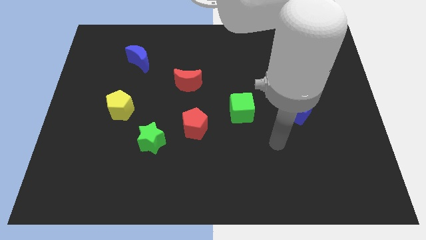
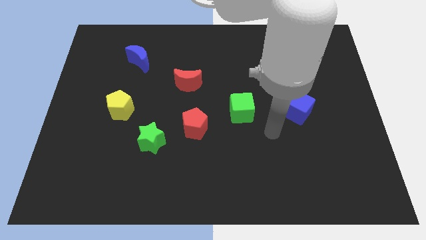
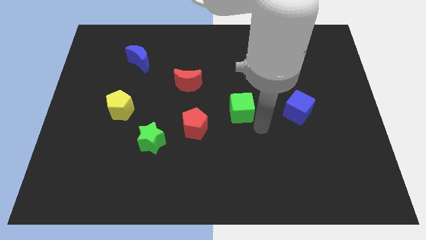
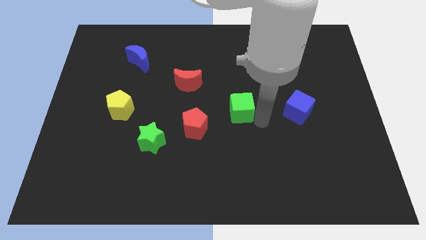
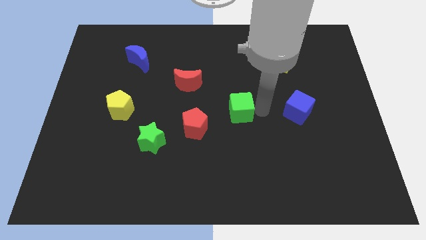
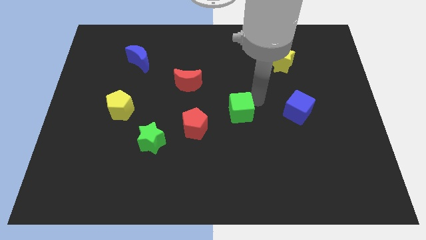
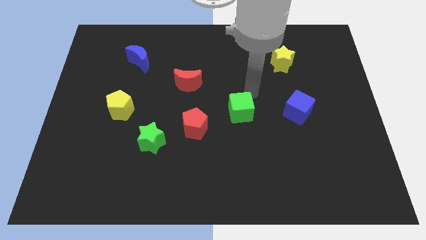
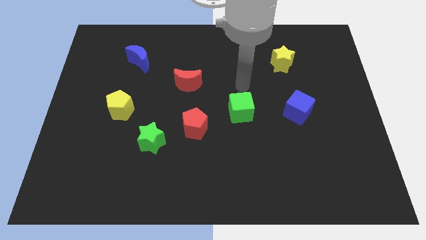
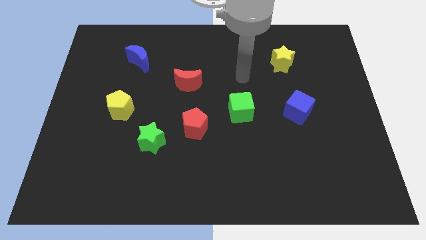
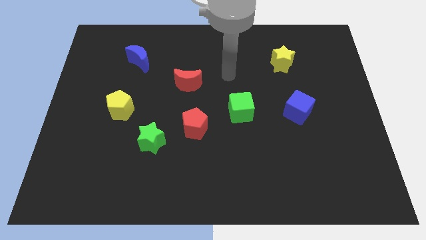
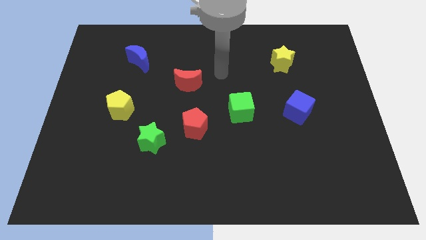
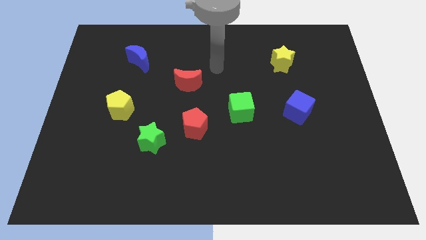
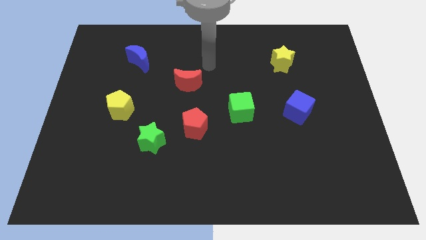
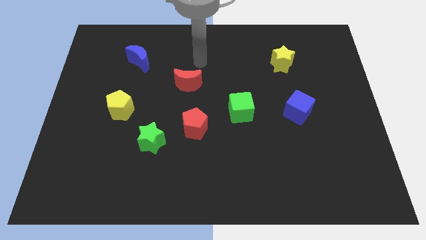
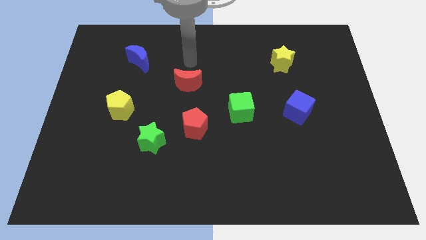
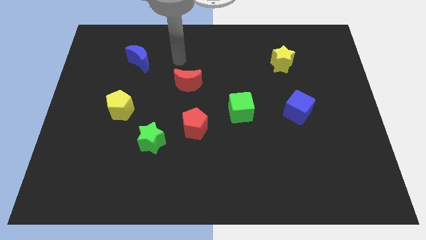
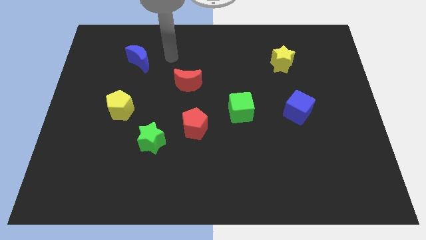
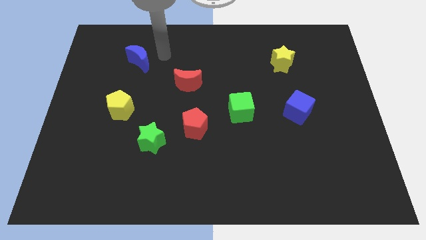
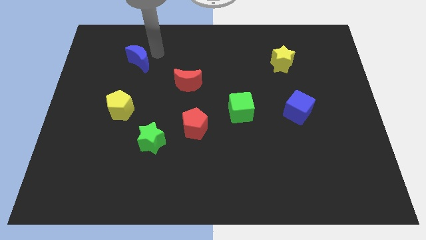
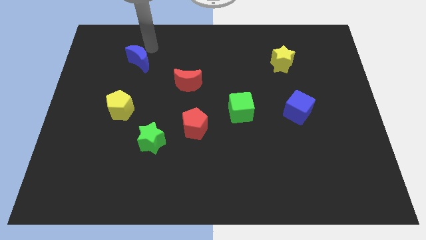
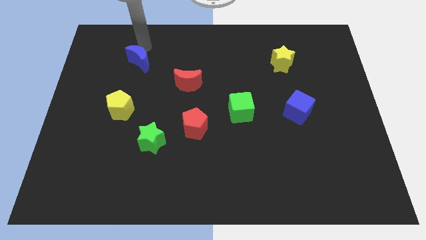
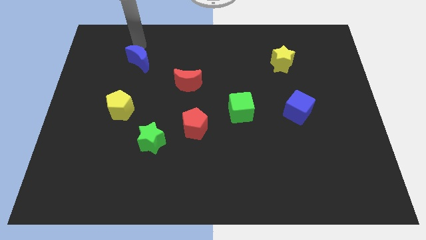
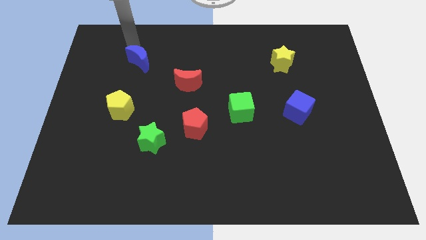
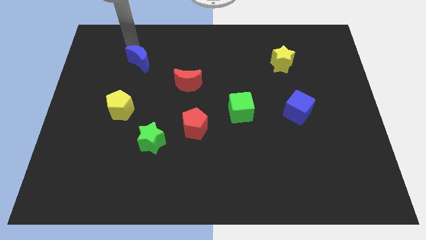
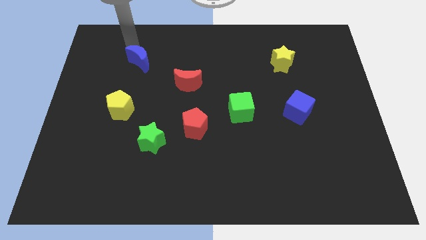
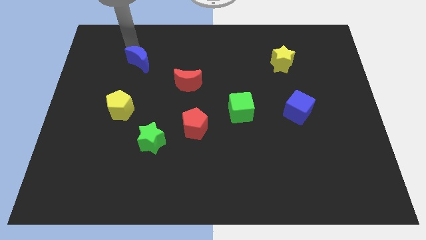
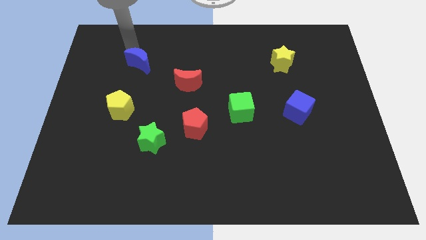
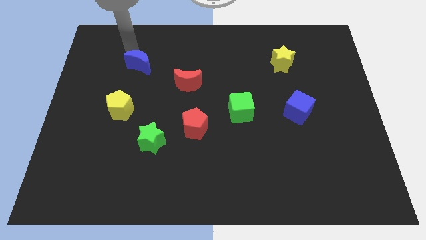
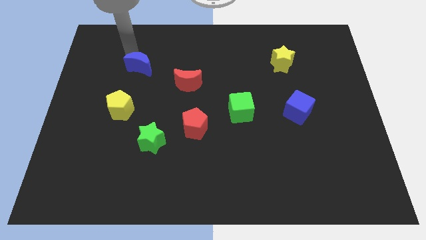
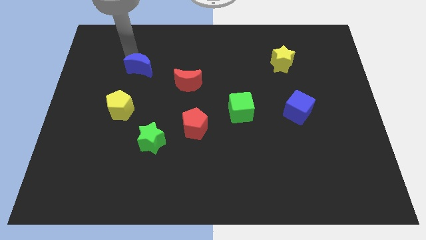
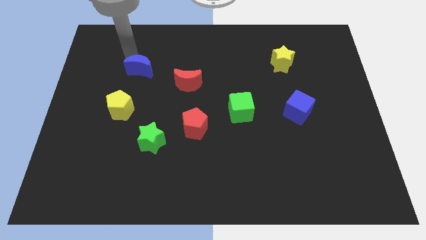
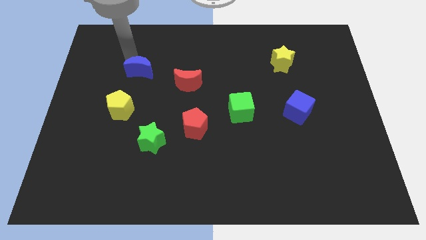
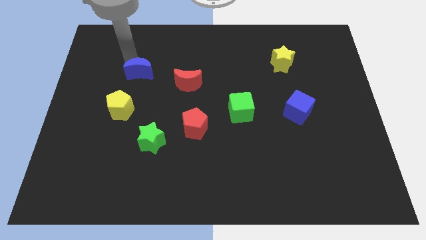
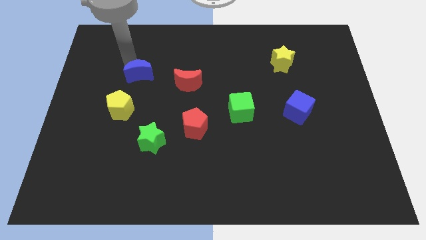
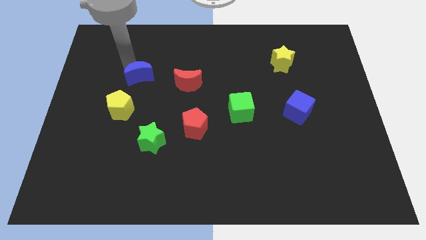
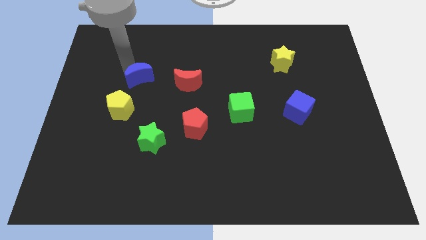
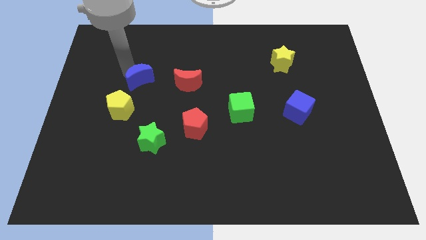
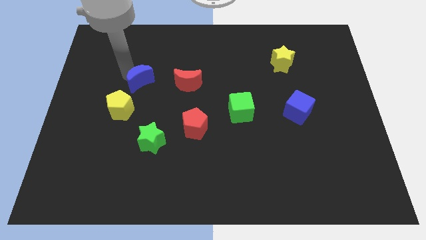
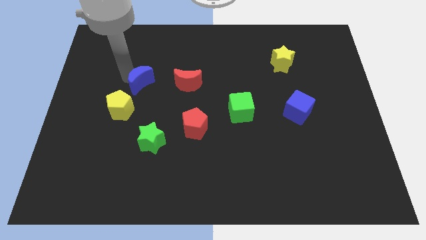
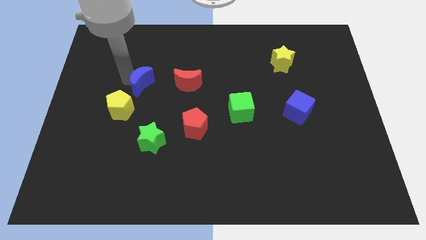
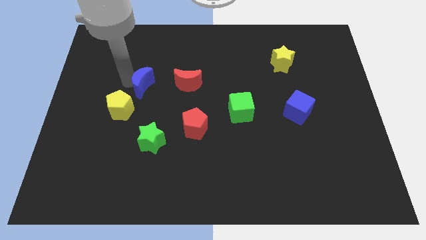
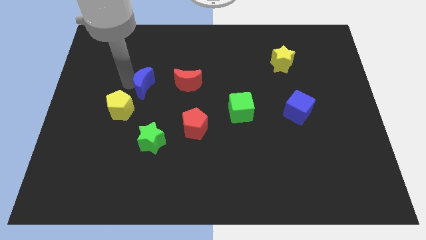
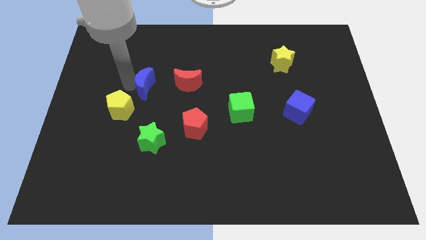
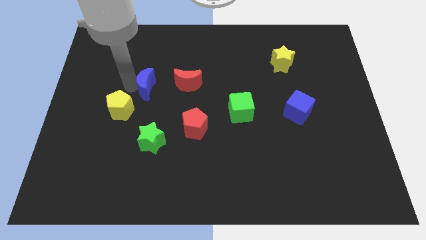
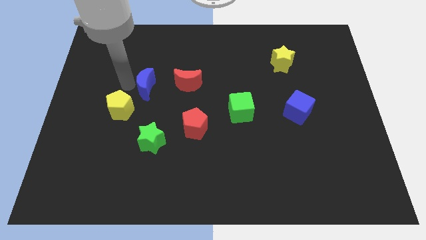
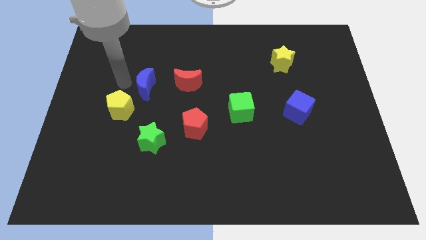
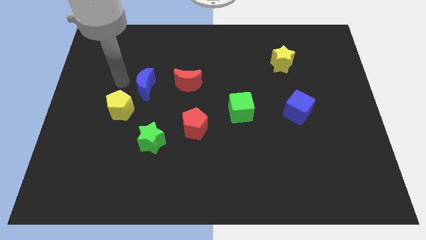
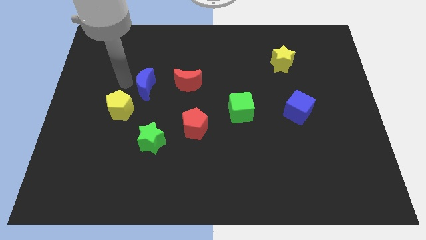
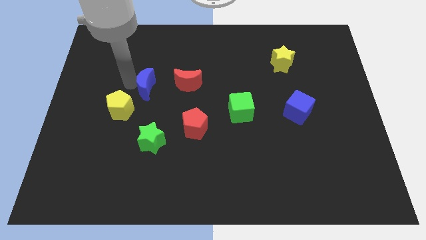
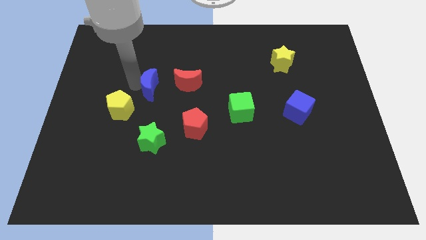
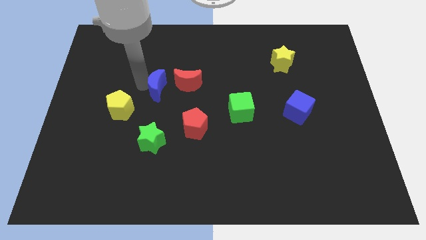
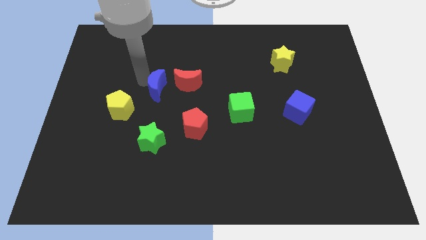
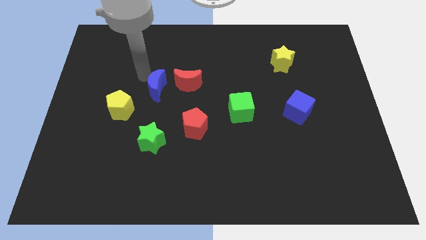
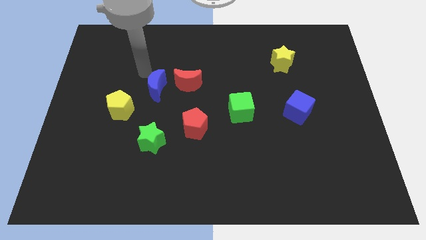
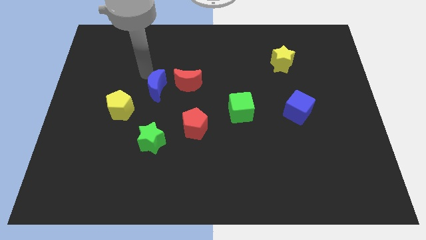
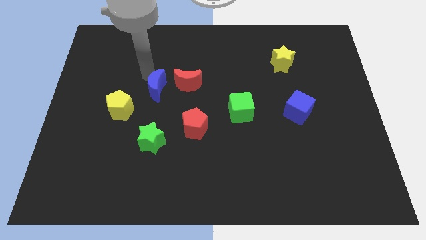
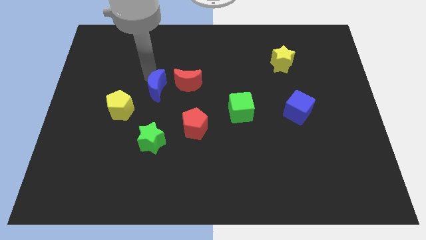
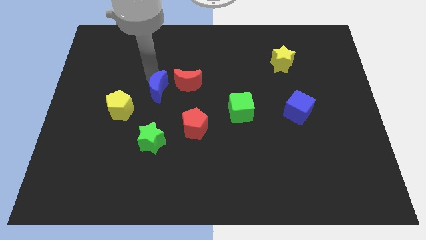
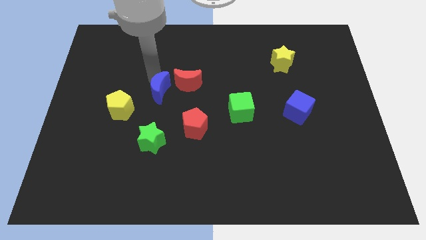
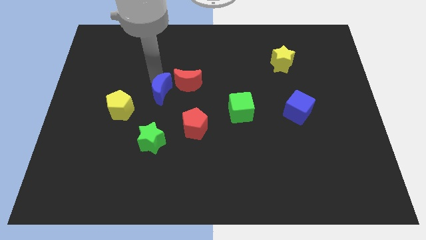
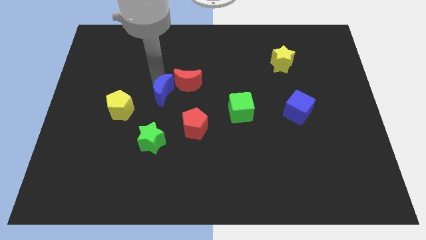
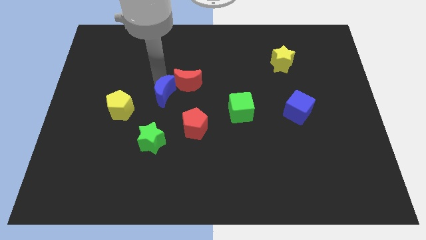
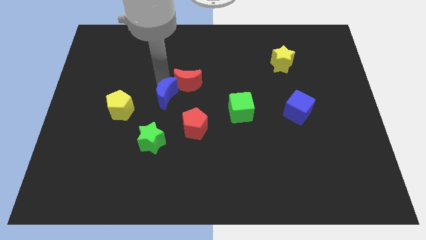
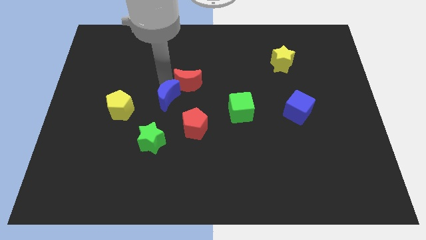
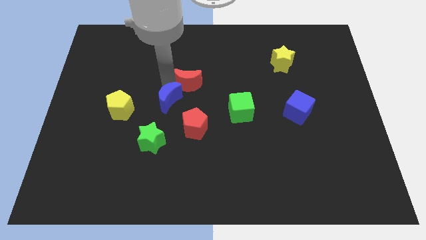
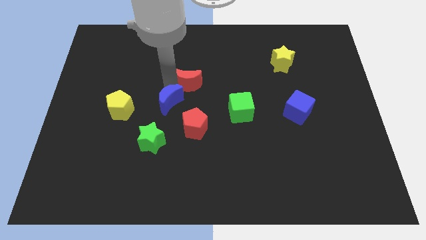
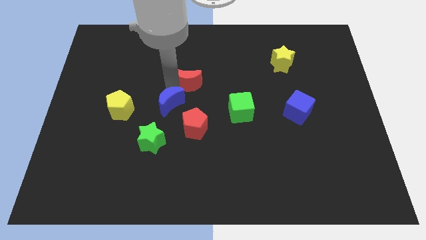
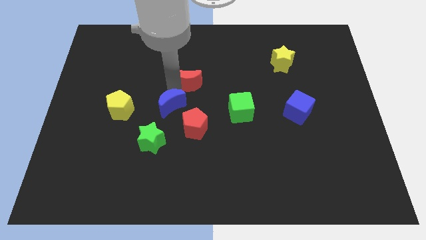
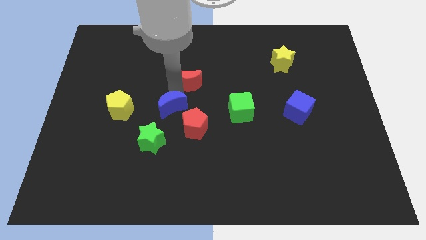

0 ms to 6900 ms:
push the blue moon diagonally up and to the right of the green star

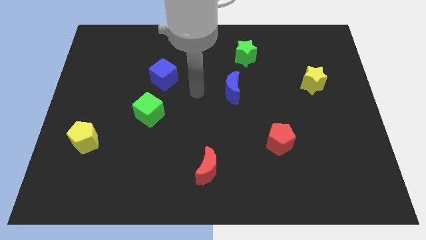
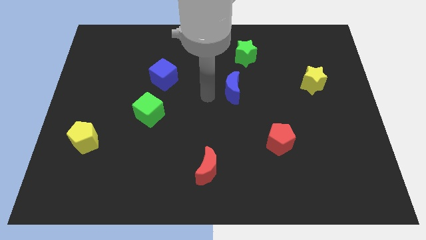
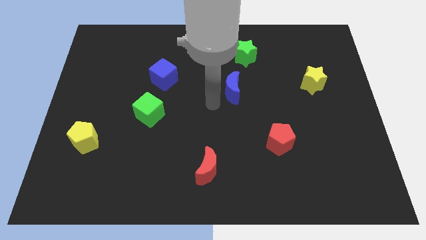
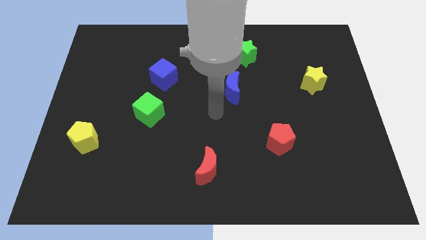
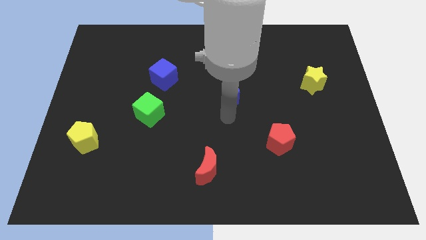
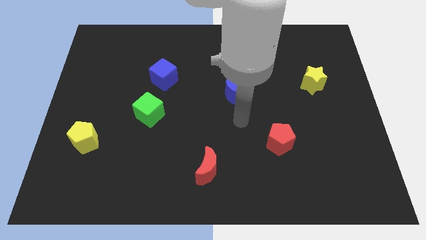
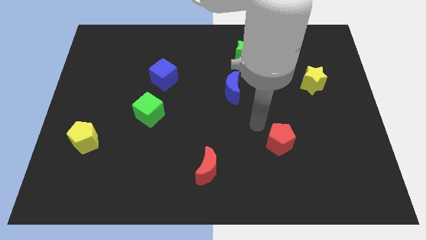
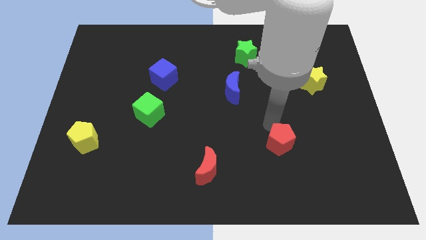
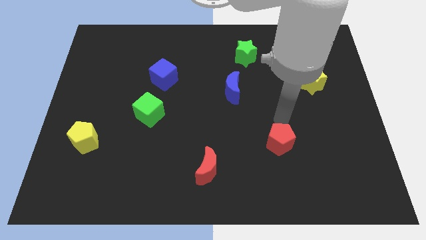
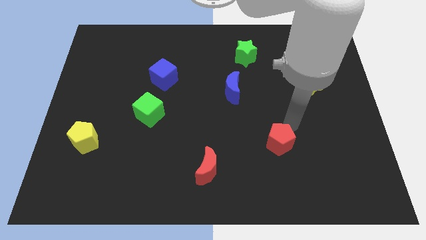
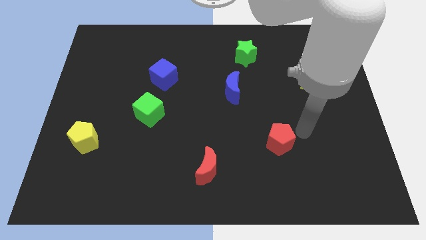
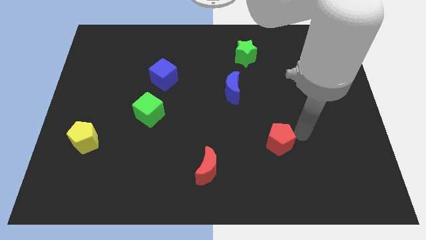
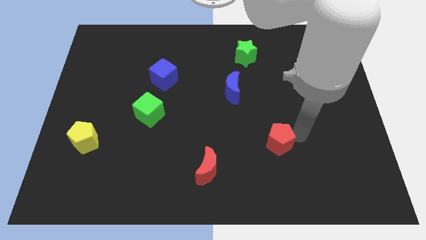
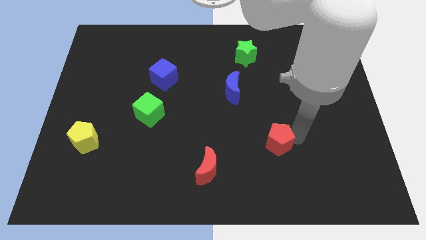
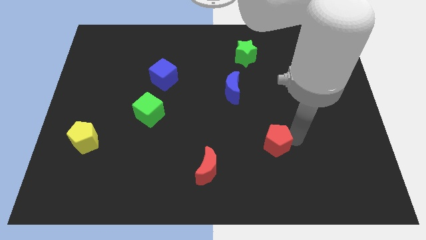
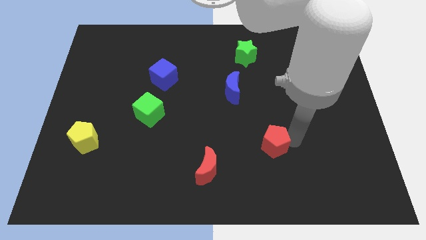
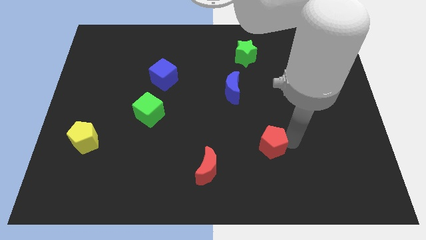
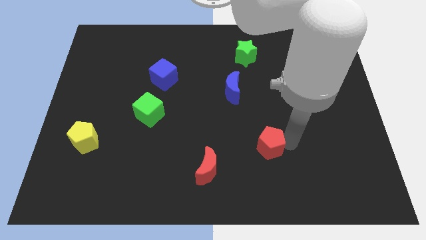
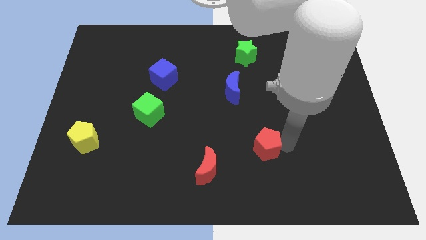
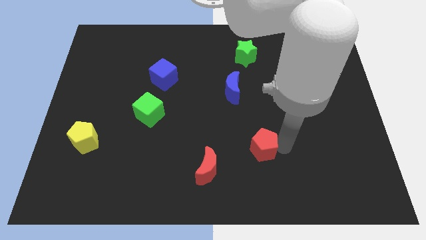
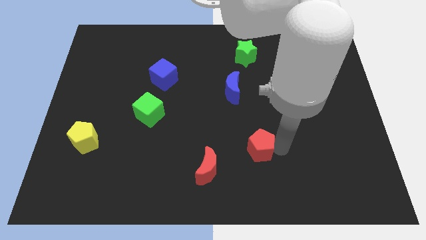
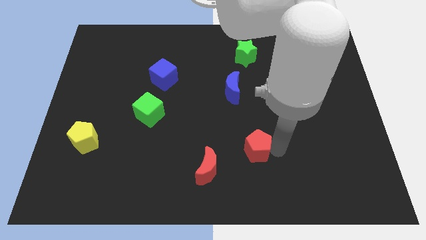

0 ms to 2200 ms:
slide the red pentagon to the top right of the red moon
